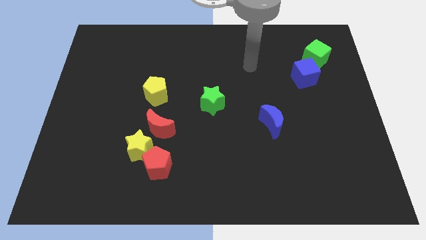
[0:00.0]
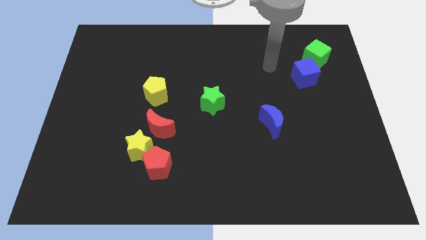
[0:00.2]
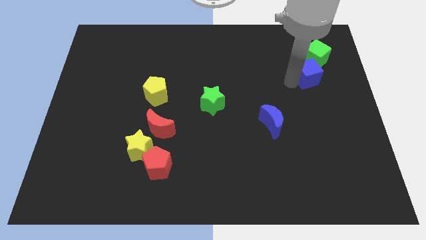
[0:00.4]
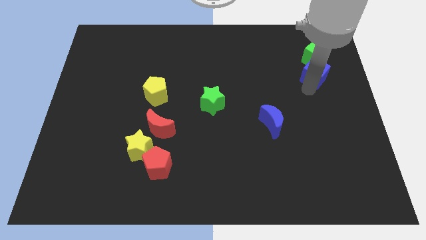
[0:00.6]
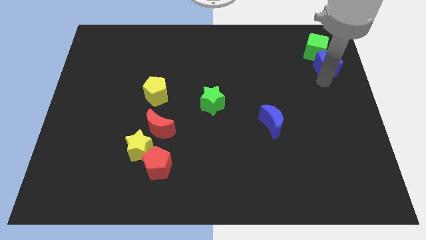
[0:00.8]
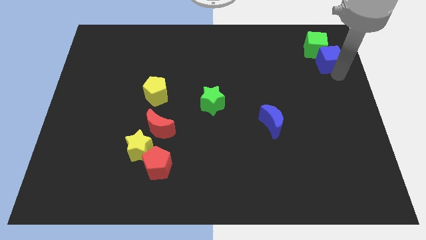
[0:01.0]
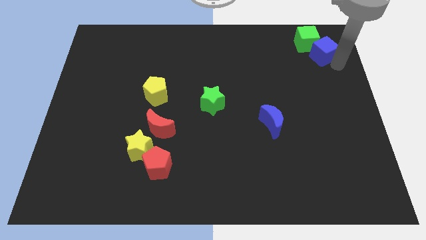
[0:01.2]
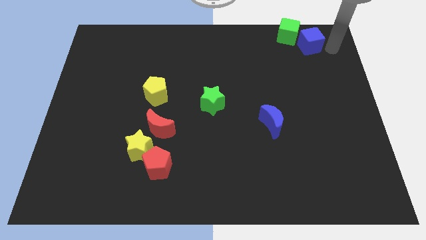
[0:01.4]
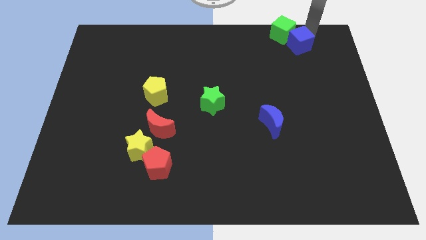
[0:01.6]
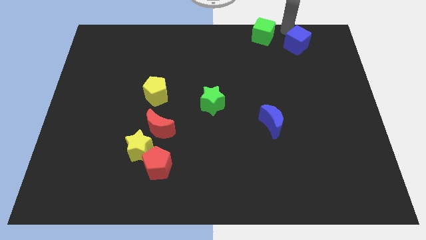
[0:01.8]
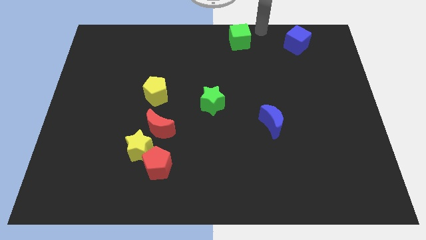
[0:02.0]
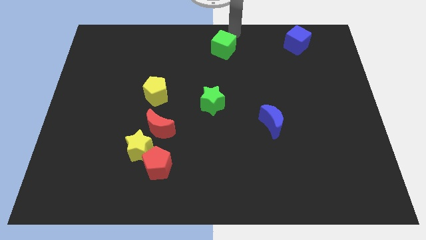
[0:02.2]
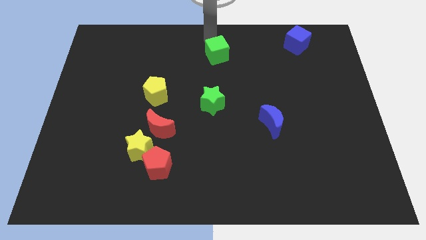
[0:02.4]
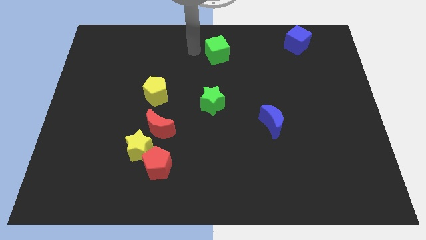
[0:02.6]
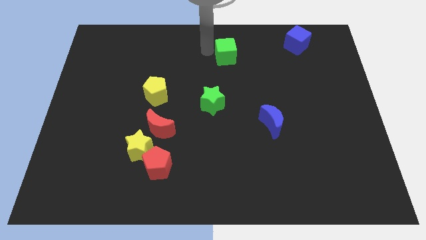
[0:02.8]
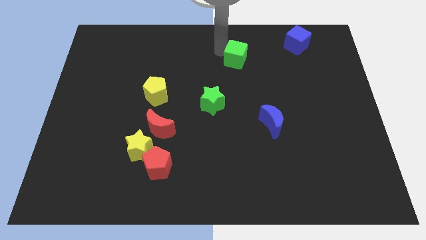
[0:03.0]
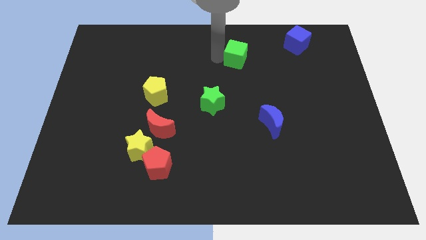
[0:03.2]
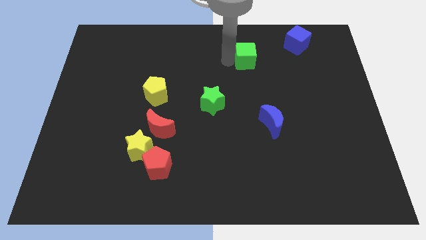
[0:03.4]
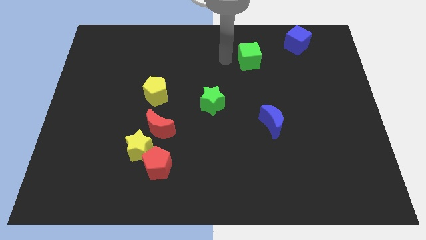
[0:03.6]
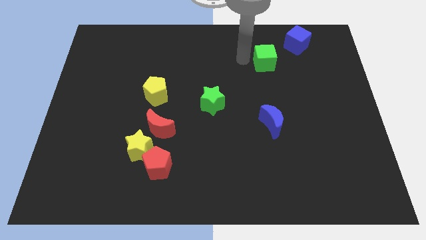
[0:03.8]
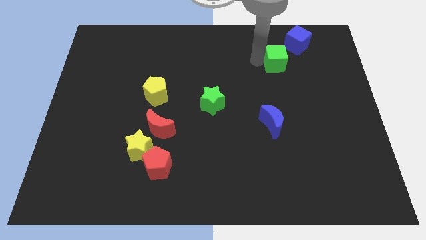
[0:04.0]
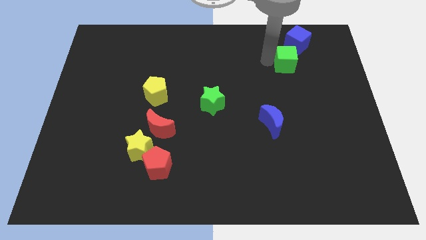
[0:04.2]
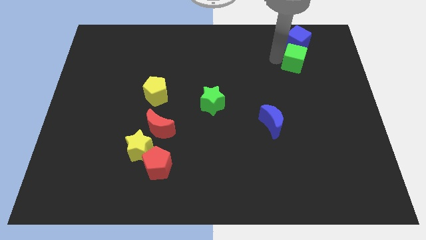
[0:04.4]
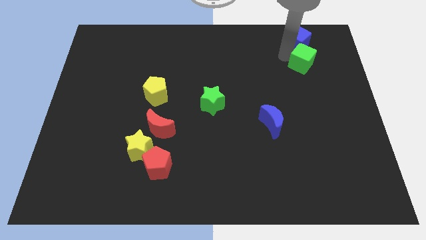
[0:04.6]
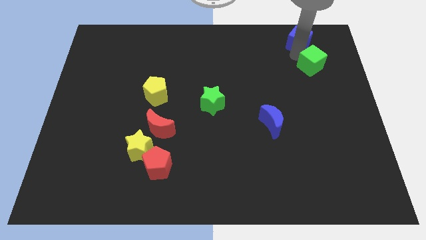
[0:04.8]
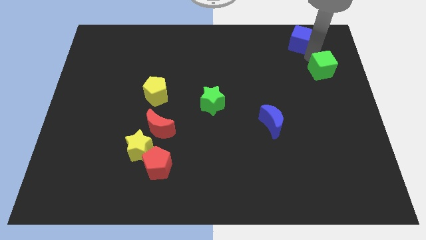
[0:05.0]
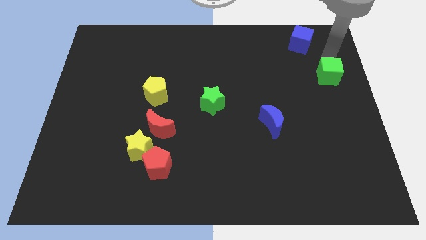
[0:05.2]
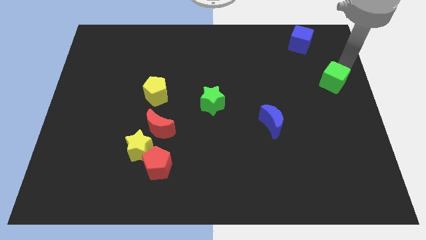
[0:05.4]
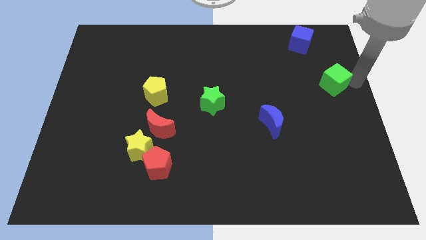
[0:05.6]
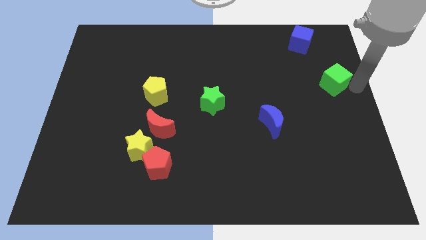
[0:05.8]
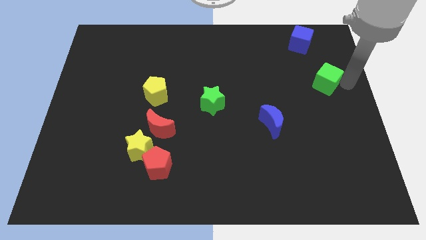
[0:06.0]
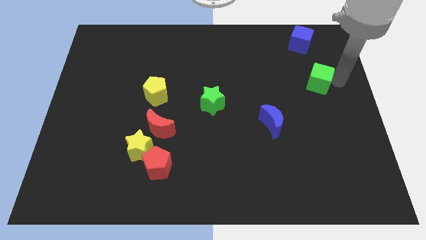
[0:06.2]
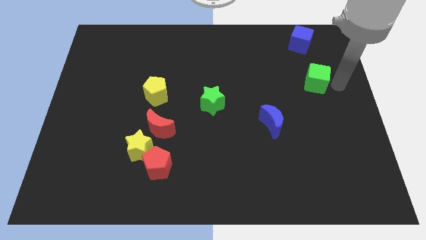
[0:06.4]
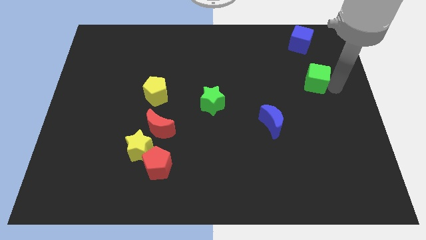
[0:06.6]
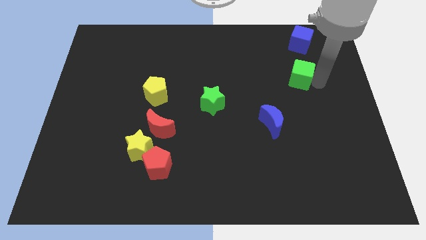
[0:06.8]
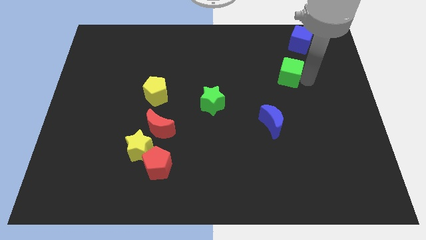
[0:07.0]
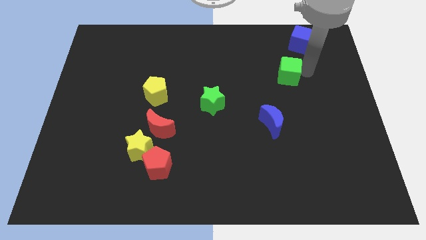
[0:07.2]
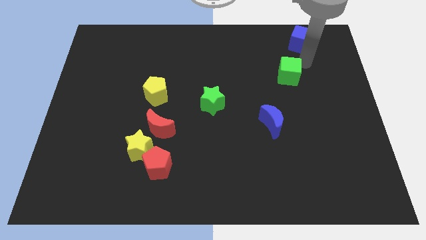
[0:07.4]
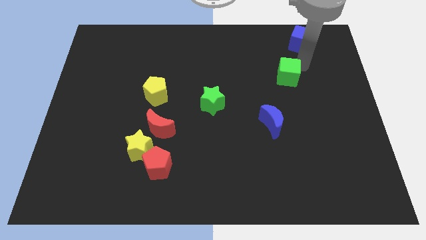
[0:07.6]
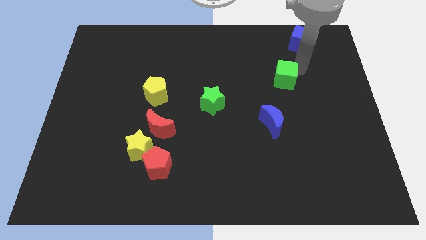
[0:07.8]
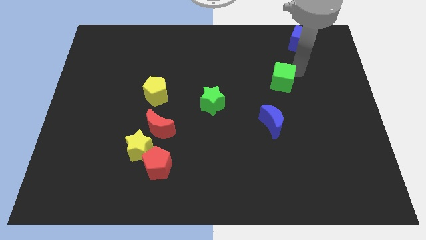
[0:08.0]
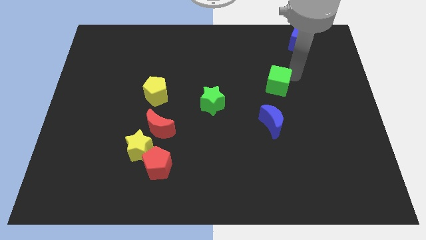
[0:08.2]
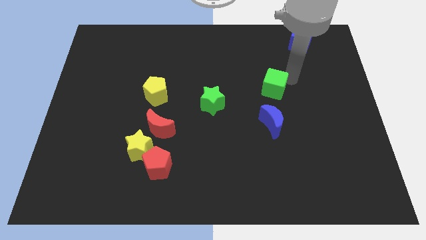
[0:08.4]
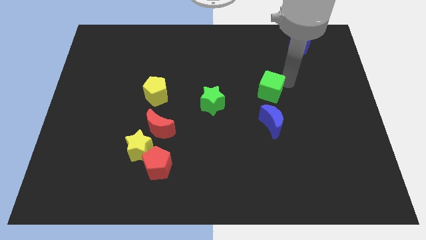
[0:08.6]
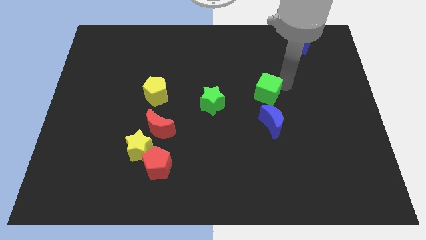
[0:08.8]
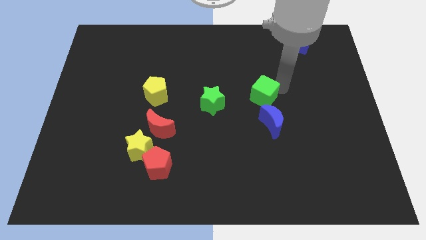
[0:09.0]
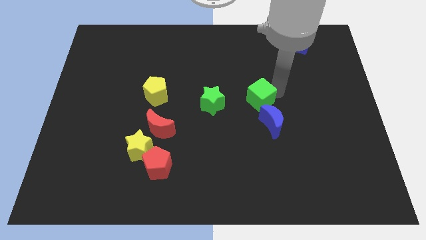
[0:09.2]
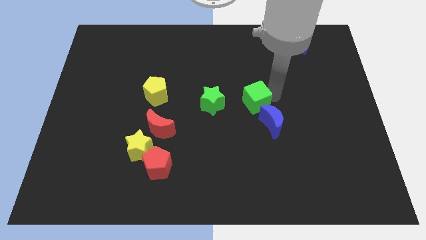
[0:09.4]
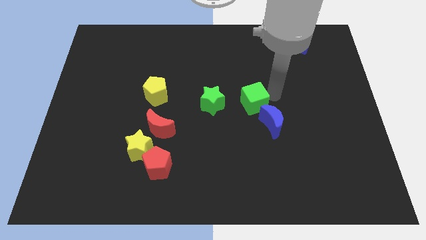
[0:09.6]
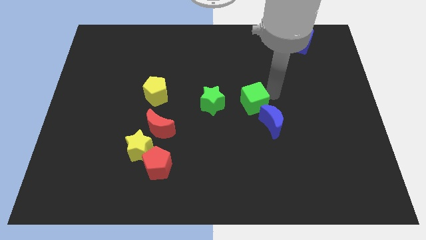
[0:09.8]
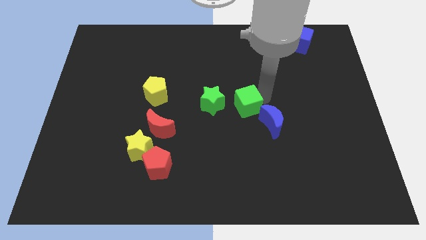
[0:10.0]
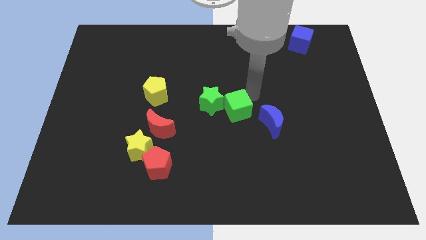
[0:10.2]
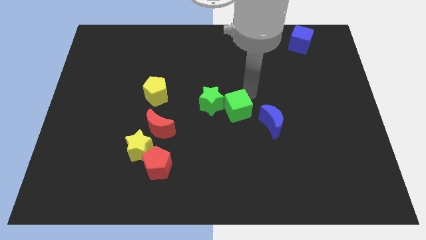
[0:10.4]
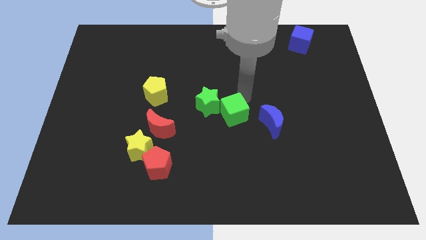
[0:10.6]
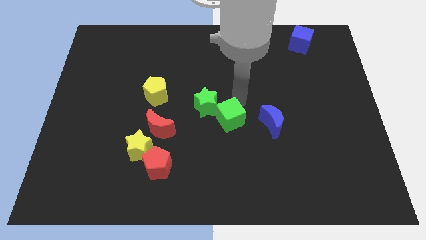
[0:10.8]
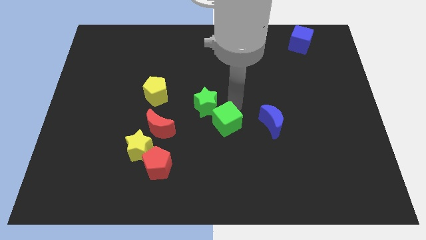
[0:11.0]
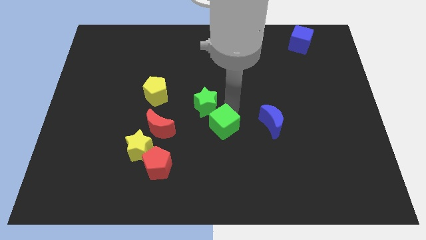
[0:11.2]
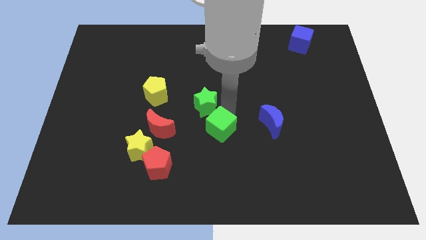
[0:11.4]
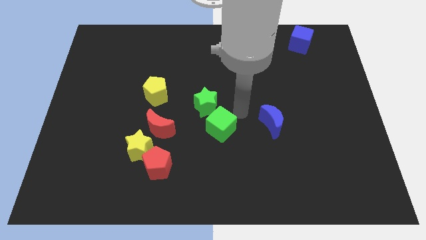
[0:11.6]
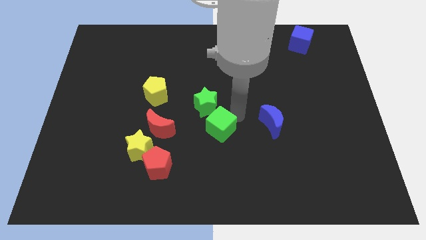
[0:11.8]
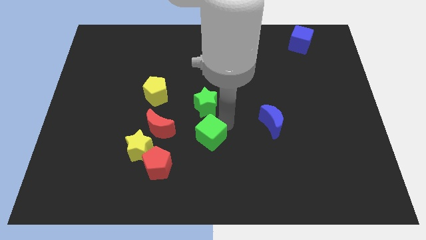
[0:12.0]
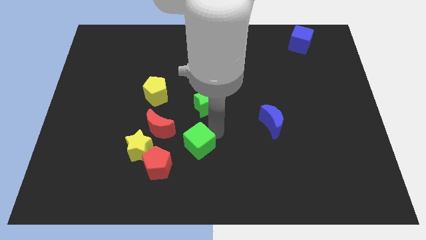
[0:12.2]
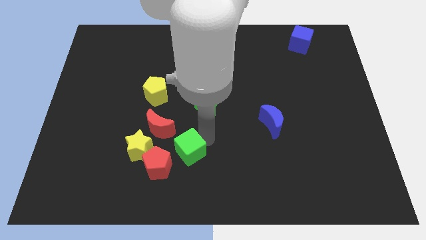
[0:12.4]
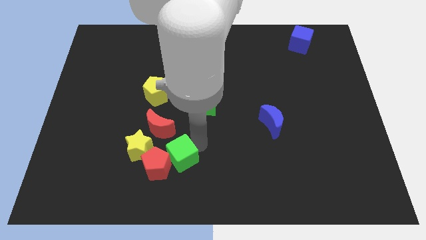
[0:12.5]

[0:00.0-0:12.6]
slide the green cube towards the red pentagon
